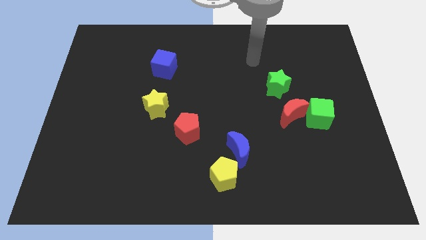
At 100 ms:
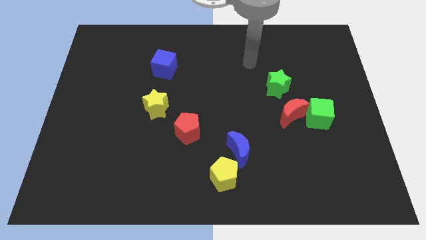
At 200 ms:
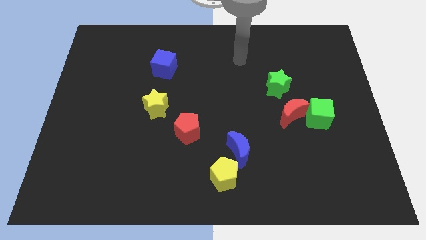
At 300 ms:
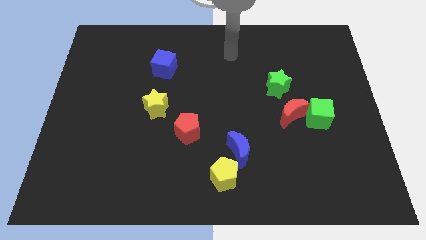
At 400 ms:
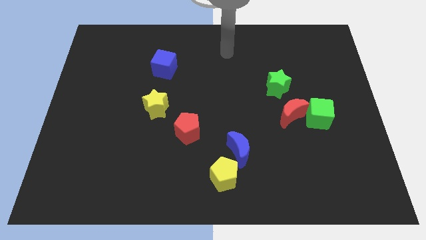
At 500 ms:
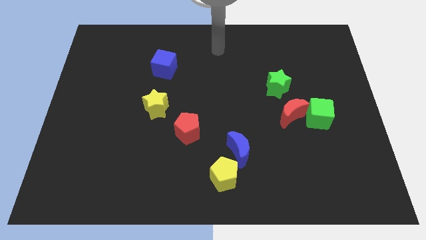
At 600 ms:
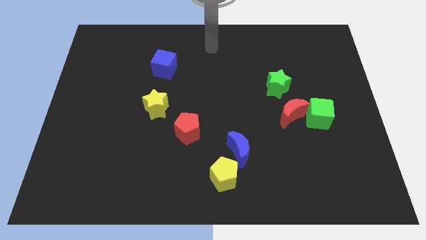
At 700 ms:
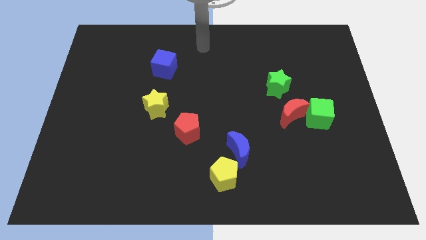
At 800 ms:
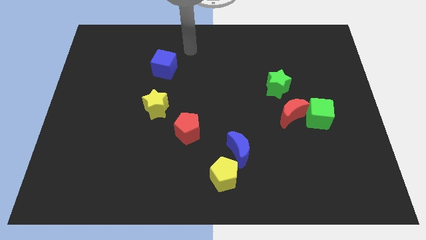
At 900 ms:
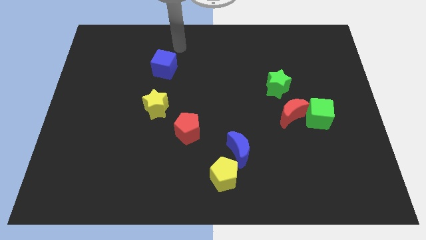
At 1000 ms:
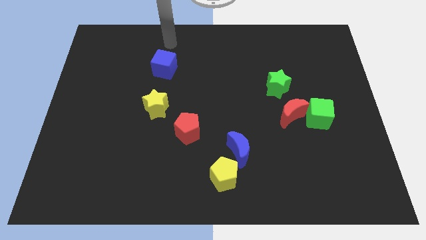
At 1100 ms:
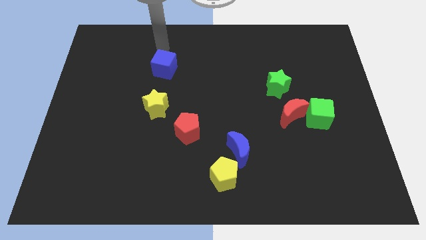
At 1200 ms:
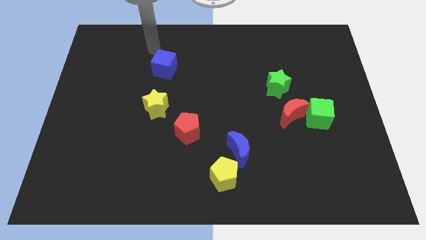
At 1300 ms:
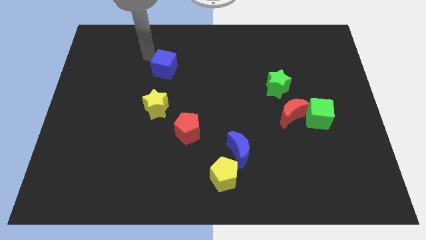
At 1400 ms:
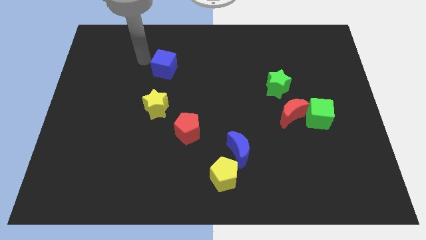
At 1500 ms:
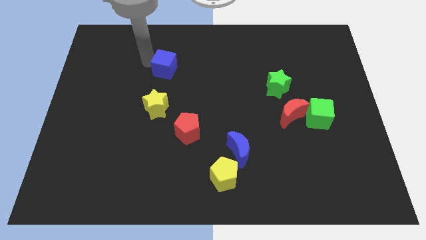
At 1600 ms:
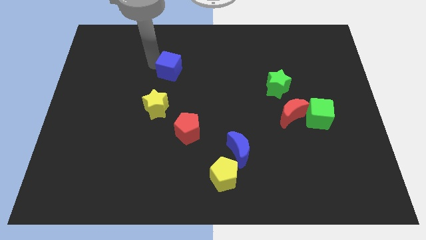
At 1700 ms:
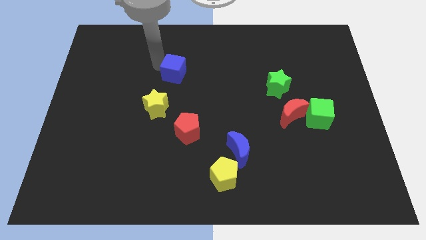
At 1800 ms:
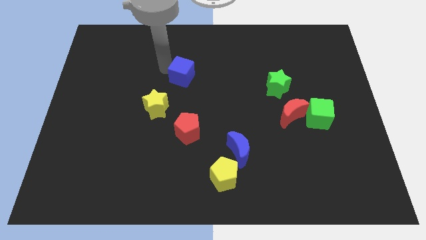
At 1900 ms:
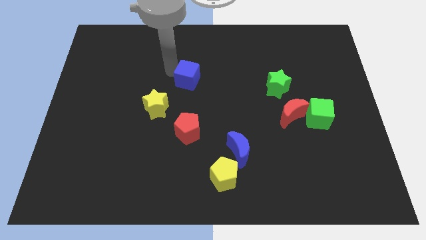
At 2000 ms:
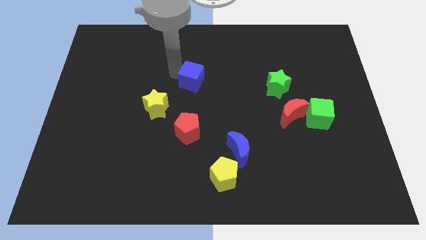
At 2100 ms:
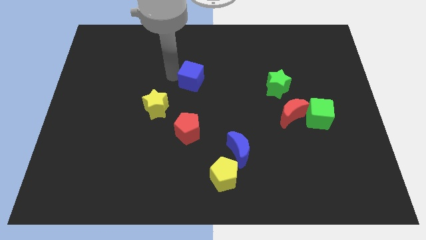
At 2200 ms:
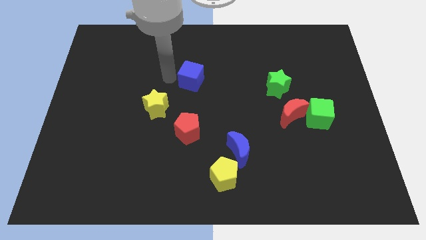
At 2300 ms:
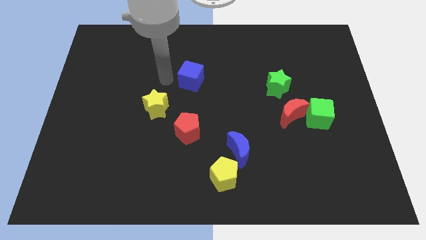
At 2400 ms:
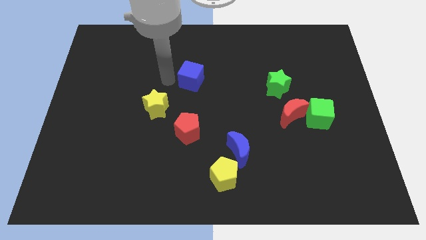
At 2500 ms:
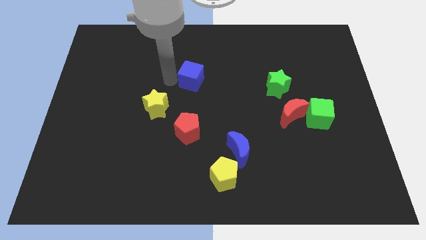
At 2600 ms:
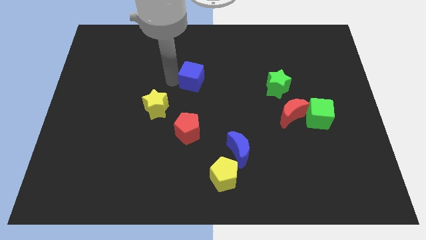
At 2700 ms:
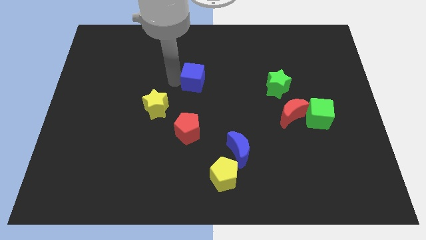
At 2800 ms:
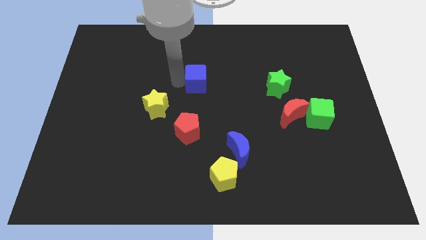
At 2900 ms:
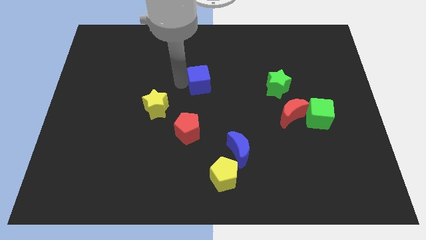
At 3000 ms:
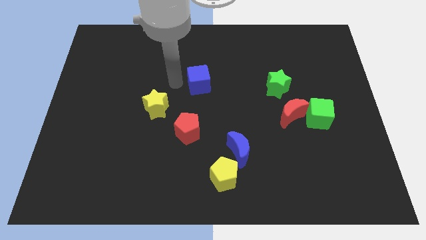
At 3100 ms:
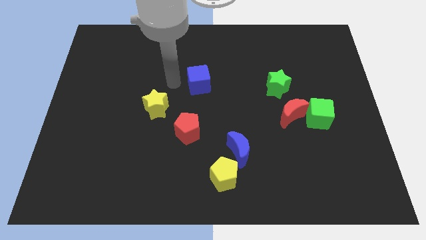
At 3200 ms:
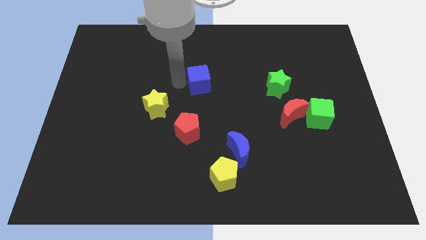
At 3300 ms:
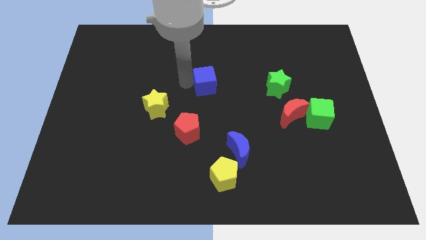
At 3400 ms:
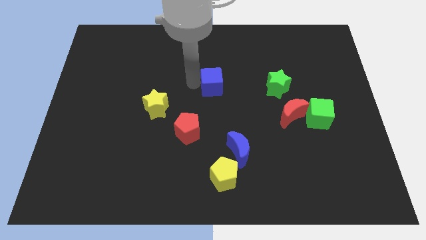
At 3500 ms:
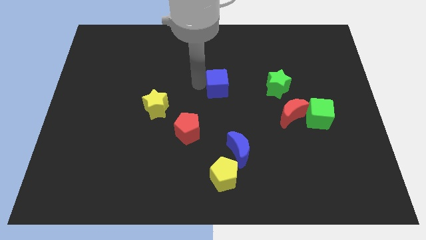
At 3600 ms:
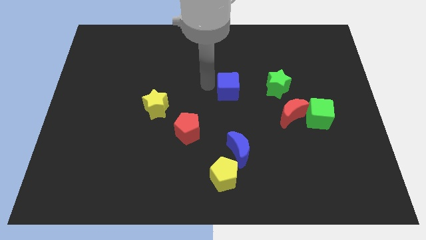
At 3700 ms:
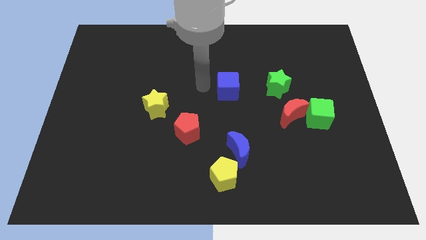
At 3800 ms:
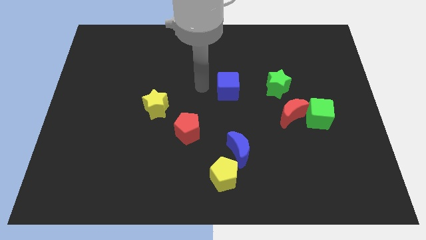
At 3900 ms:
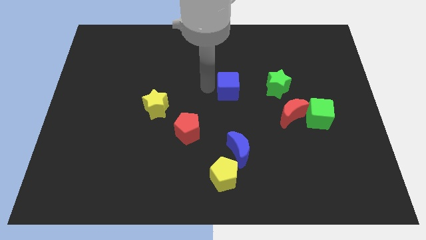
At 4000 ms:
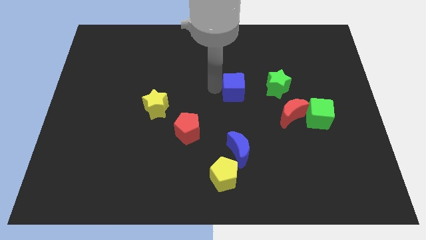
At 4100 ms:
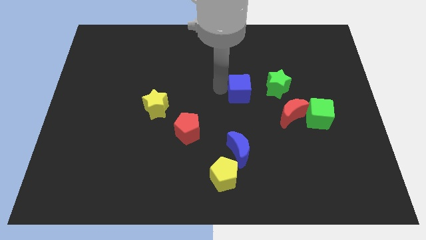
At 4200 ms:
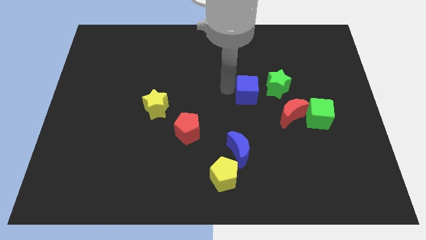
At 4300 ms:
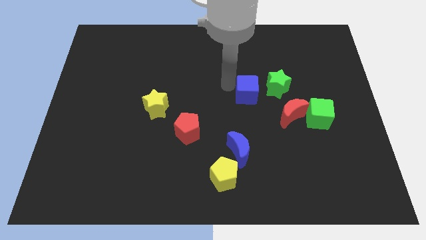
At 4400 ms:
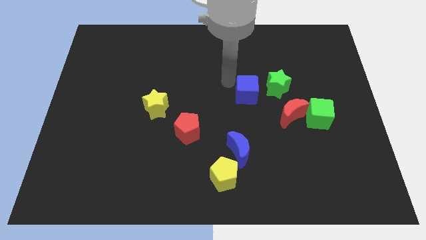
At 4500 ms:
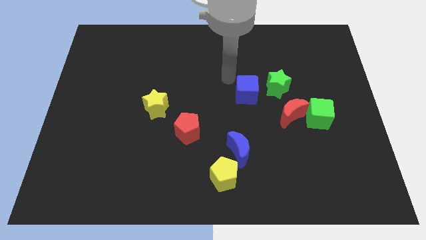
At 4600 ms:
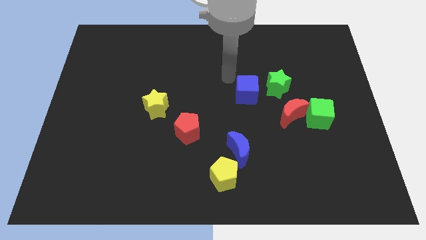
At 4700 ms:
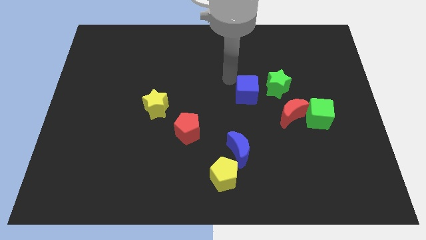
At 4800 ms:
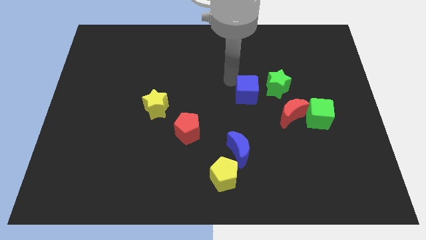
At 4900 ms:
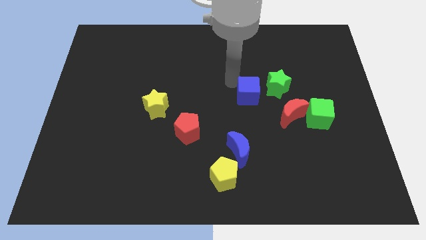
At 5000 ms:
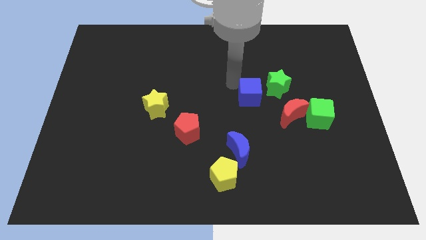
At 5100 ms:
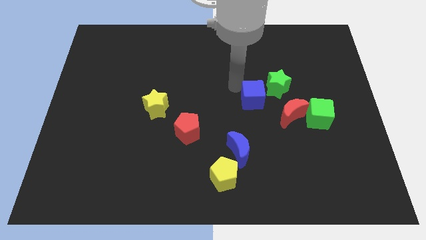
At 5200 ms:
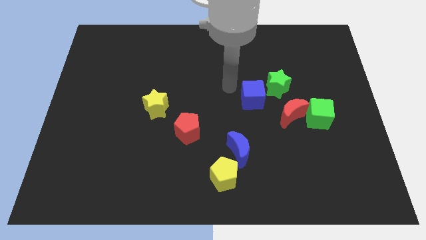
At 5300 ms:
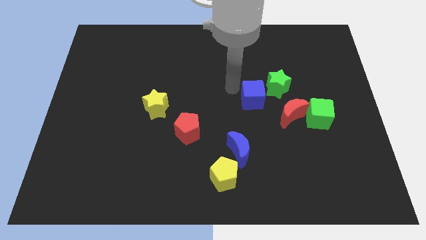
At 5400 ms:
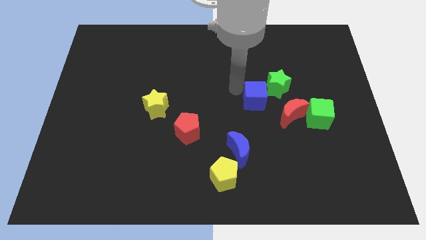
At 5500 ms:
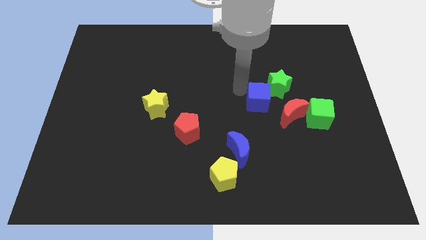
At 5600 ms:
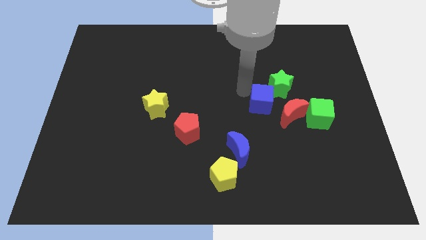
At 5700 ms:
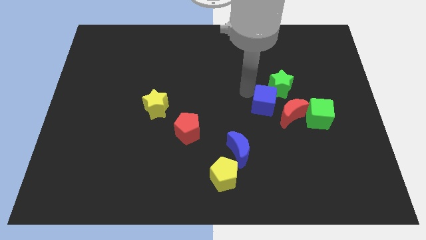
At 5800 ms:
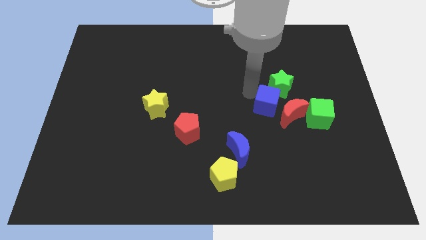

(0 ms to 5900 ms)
put the blue cube to the red moon

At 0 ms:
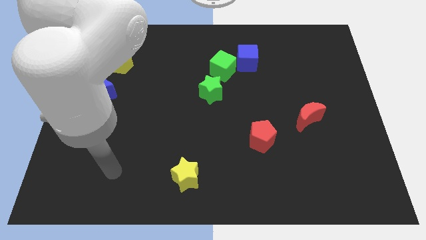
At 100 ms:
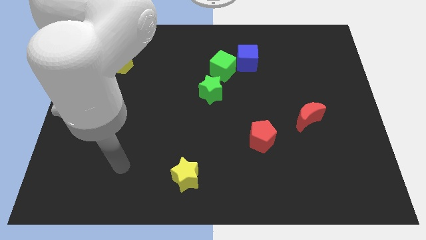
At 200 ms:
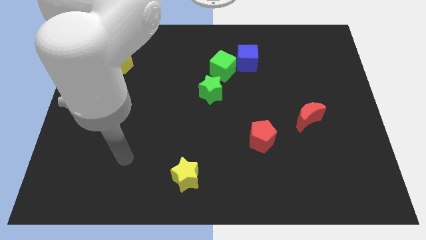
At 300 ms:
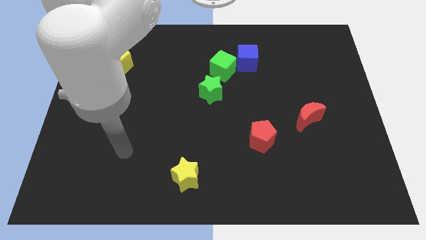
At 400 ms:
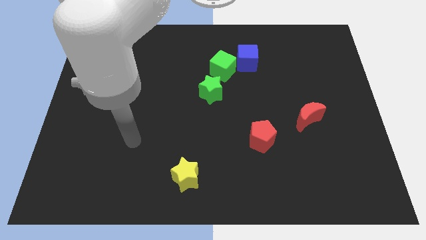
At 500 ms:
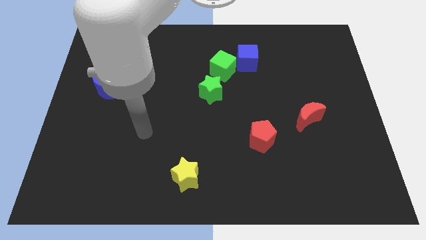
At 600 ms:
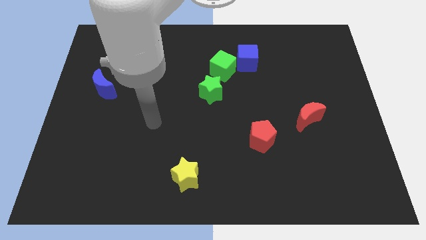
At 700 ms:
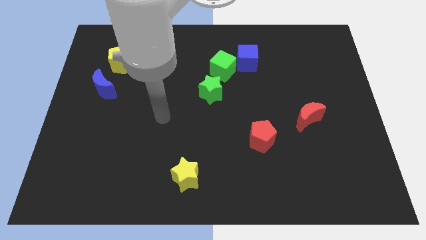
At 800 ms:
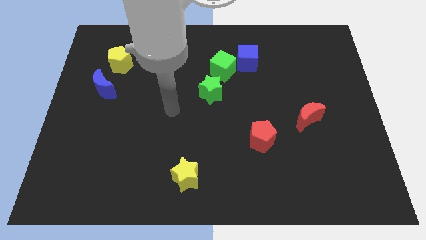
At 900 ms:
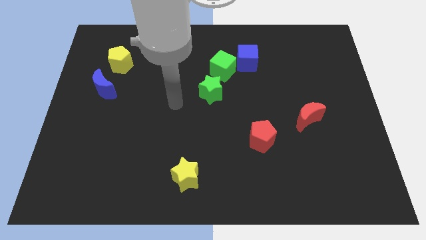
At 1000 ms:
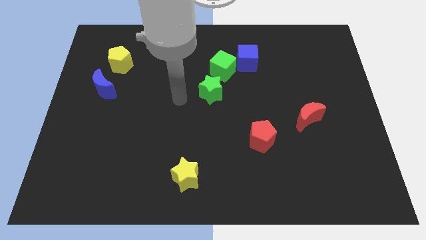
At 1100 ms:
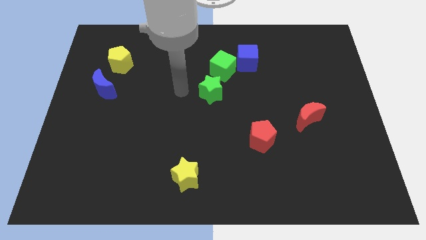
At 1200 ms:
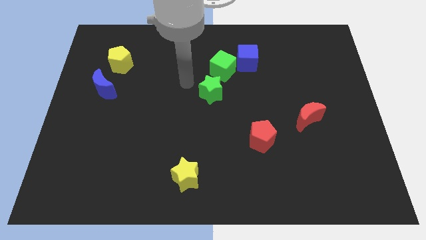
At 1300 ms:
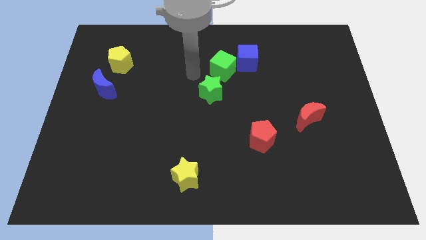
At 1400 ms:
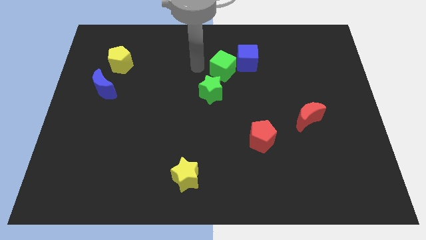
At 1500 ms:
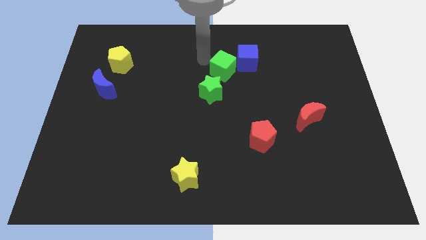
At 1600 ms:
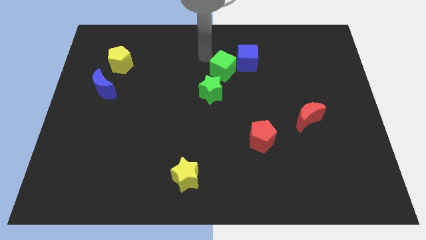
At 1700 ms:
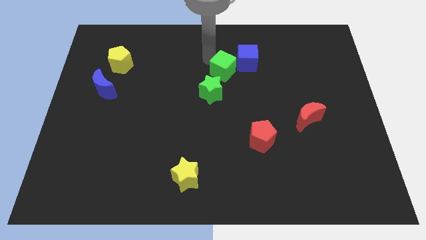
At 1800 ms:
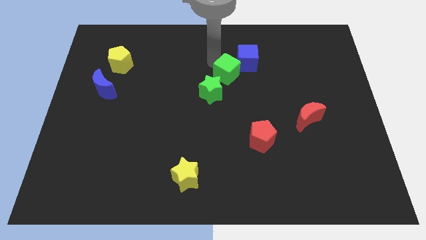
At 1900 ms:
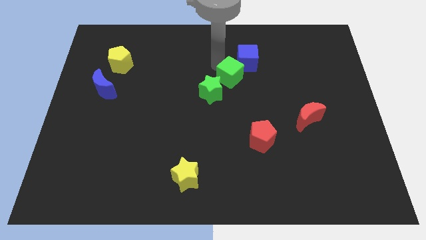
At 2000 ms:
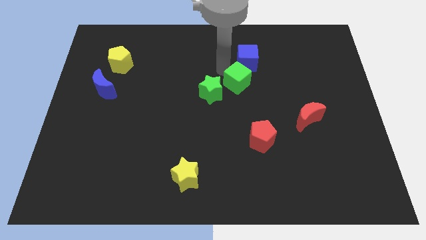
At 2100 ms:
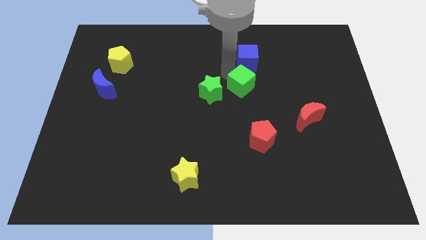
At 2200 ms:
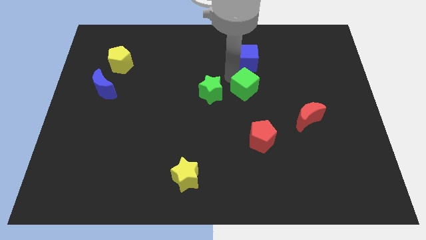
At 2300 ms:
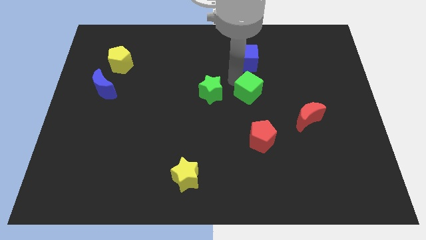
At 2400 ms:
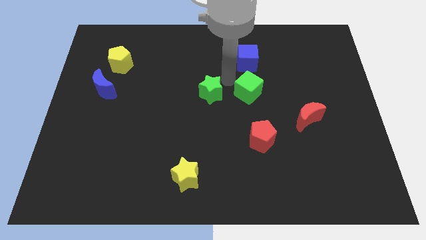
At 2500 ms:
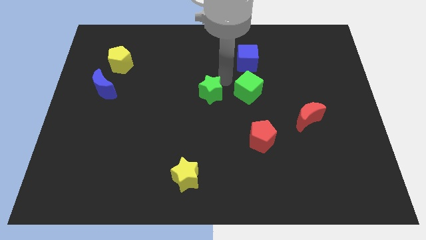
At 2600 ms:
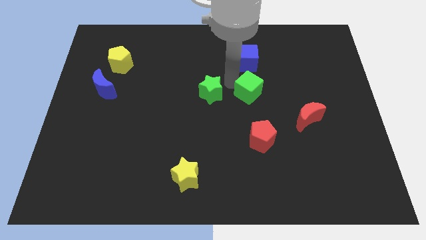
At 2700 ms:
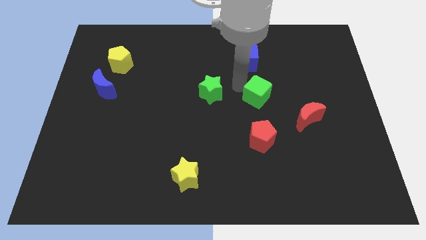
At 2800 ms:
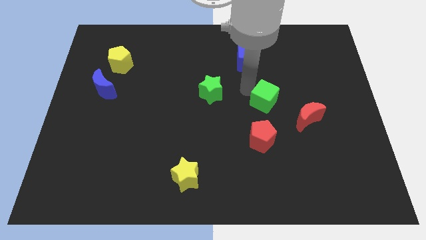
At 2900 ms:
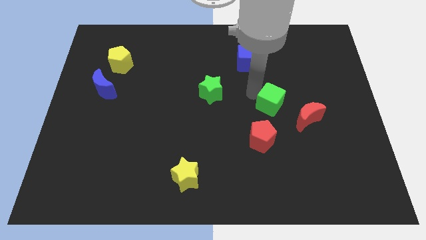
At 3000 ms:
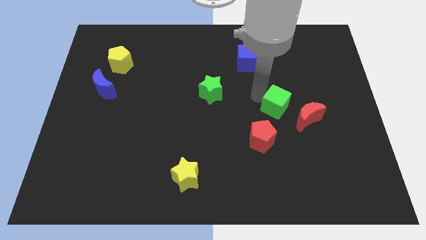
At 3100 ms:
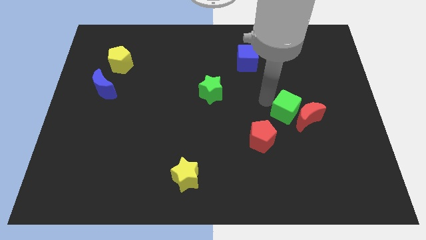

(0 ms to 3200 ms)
push the green cube towards the red moon
